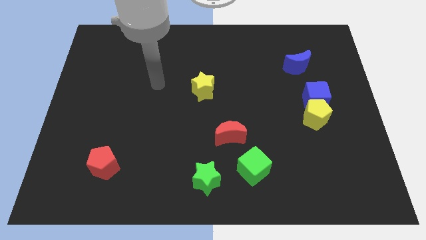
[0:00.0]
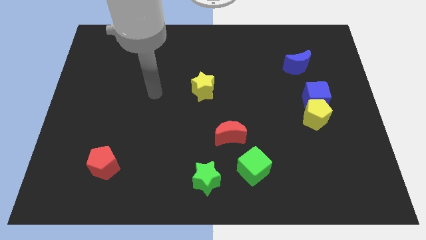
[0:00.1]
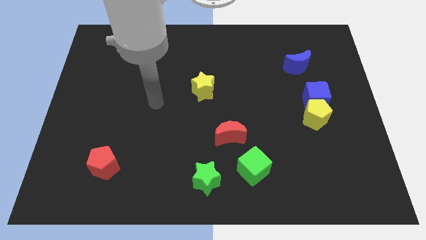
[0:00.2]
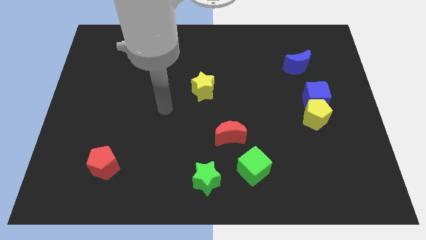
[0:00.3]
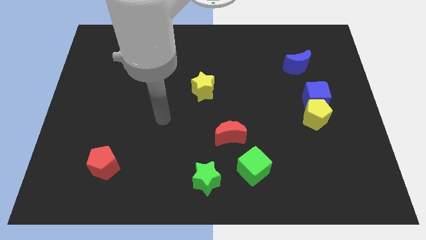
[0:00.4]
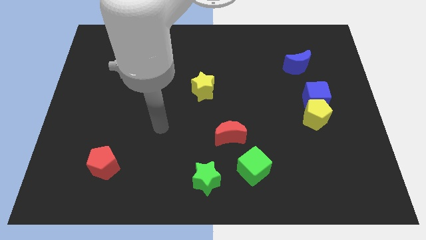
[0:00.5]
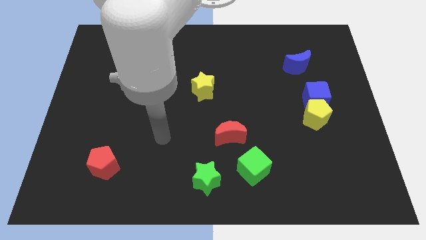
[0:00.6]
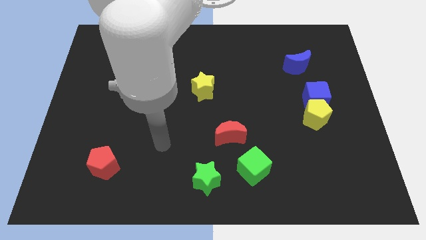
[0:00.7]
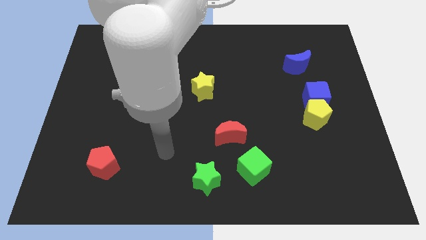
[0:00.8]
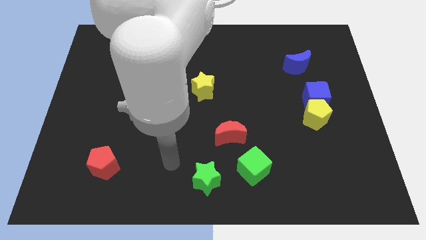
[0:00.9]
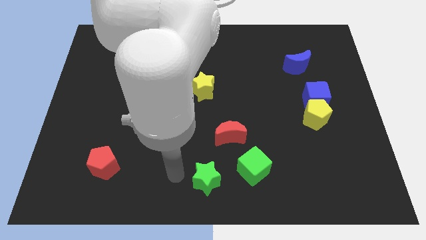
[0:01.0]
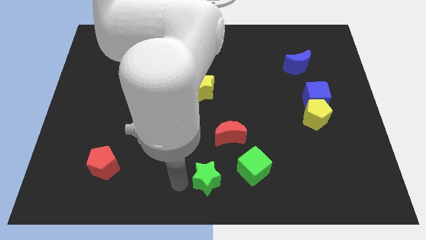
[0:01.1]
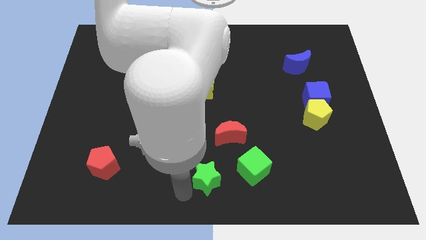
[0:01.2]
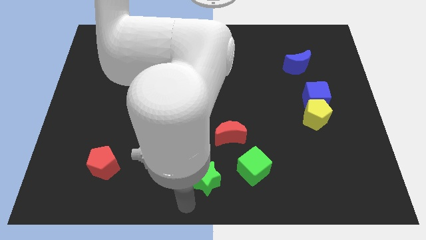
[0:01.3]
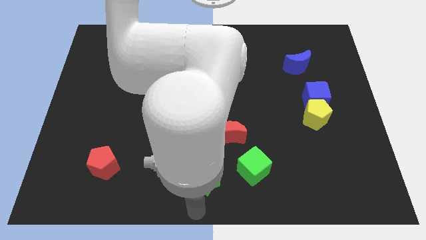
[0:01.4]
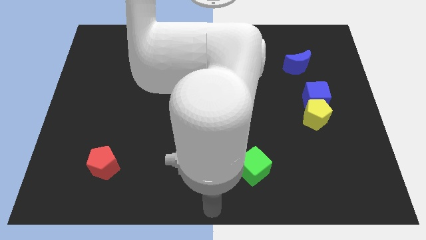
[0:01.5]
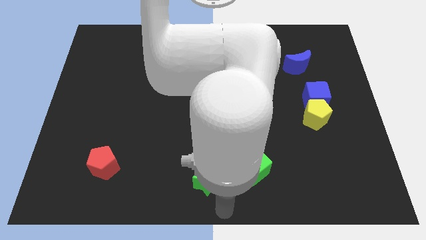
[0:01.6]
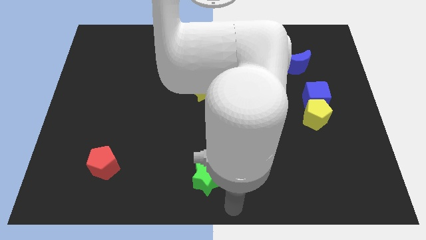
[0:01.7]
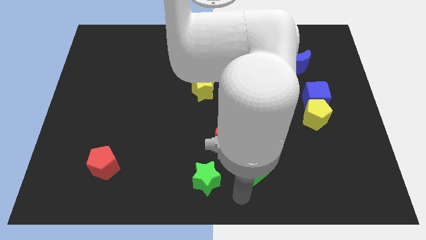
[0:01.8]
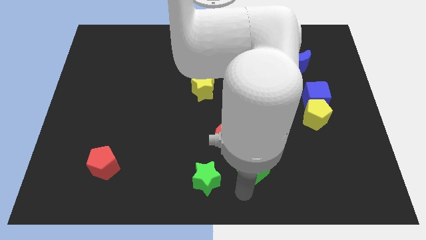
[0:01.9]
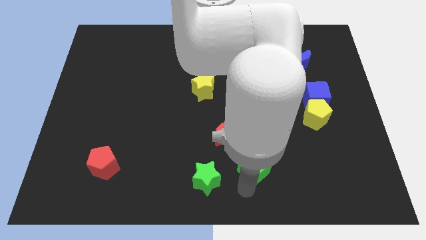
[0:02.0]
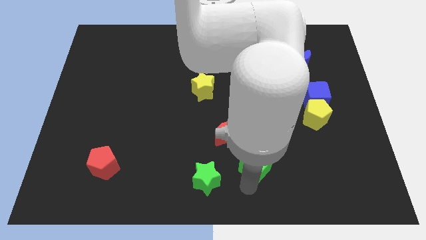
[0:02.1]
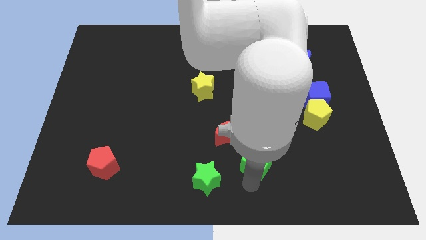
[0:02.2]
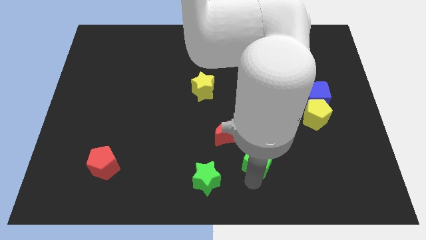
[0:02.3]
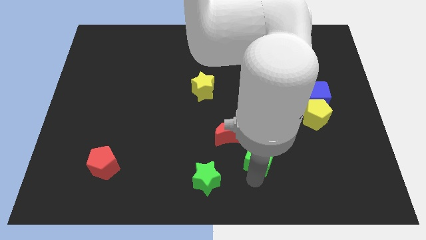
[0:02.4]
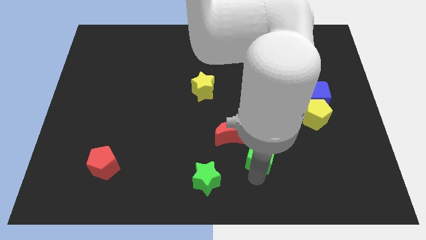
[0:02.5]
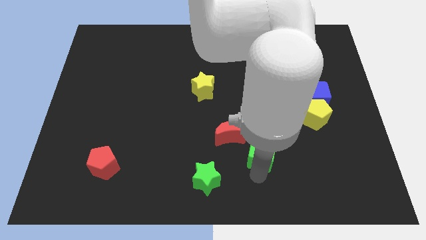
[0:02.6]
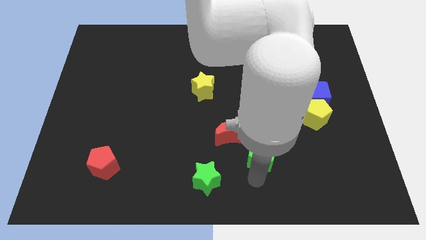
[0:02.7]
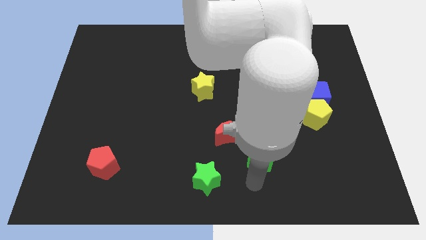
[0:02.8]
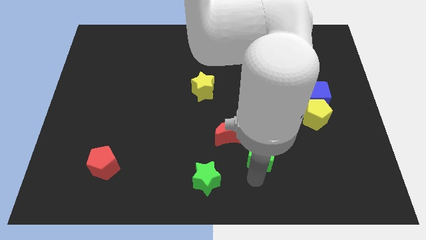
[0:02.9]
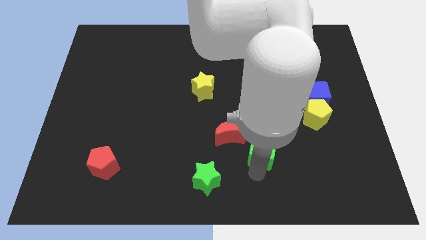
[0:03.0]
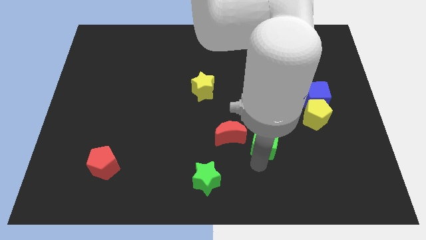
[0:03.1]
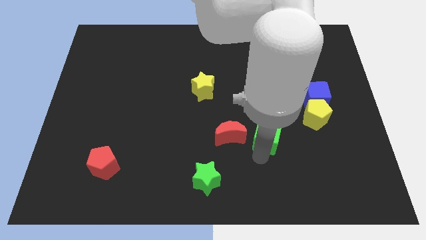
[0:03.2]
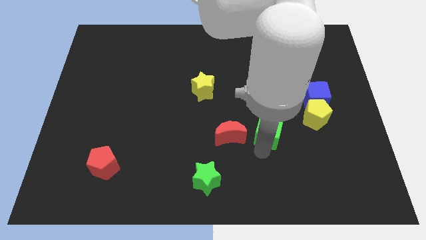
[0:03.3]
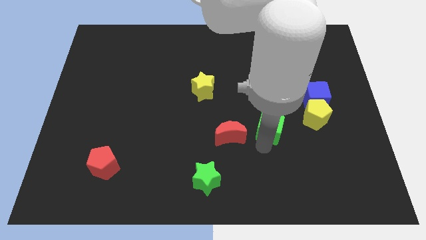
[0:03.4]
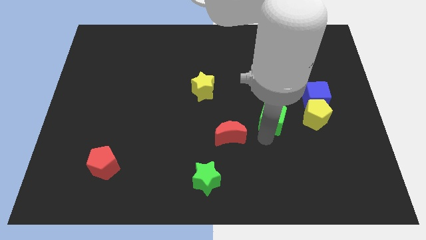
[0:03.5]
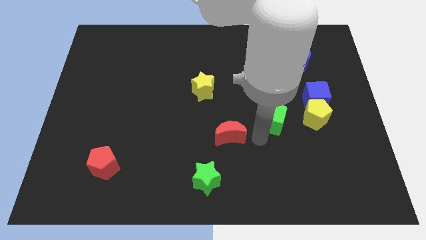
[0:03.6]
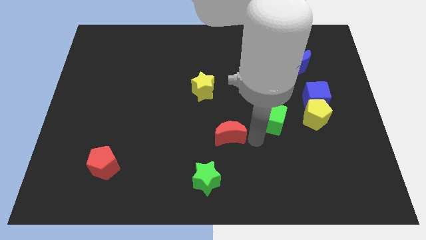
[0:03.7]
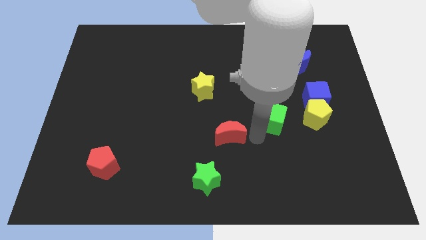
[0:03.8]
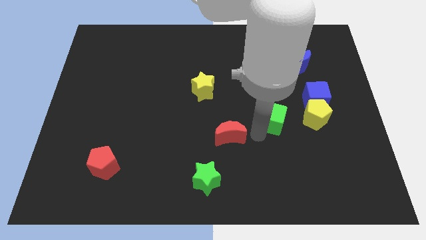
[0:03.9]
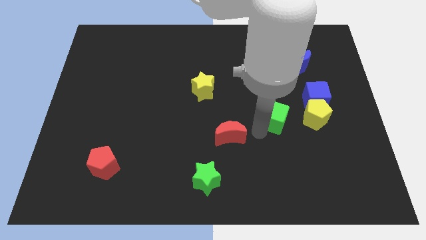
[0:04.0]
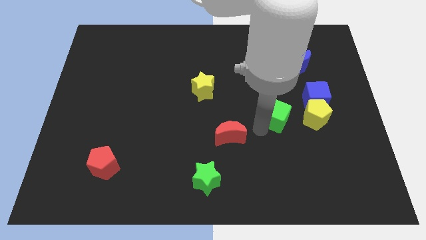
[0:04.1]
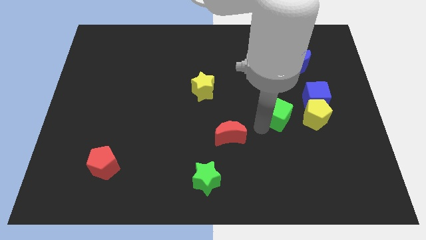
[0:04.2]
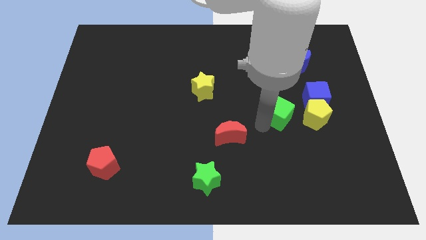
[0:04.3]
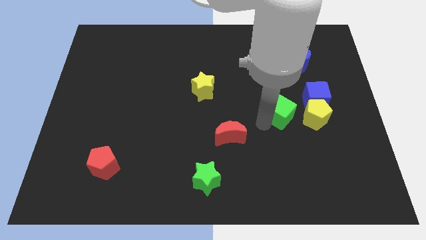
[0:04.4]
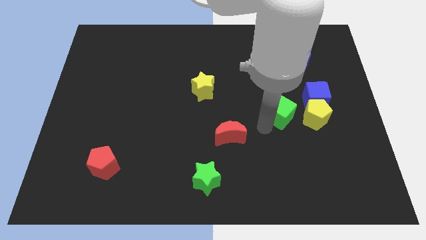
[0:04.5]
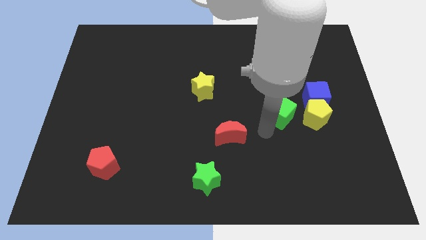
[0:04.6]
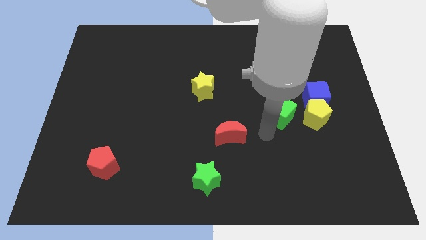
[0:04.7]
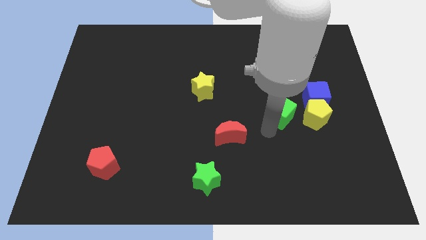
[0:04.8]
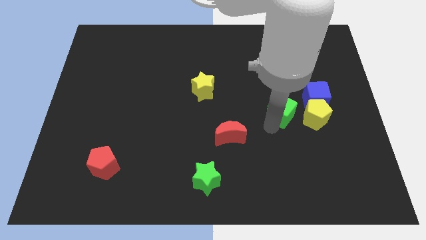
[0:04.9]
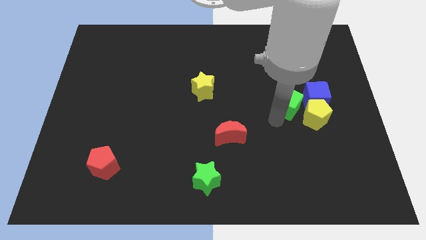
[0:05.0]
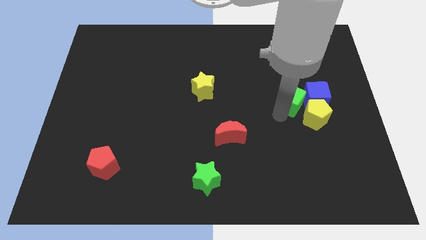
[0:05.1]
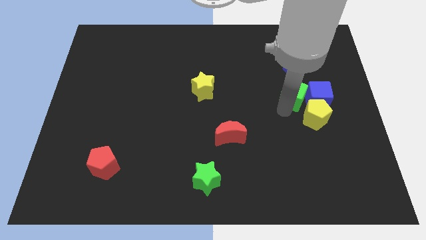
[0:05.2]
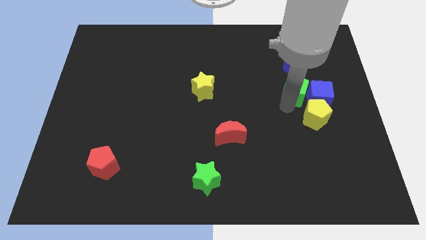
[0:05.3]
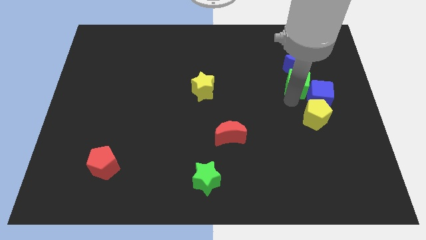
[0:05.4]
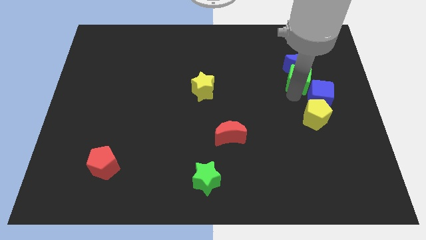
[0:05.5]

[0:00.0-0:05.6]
put the green cube to the blue moon

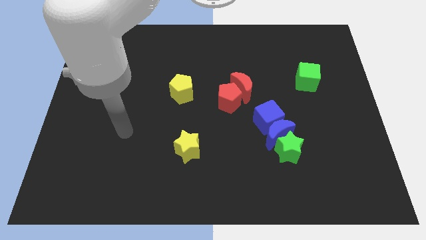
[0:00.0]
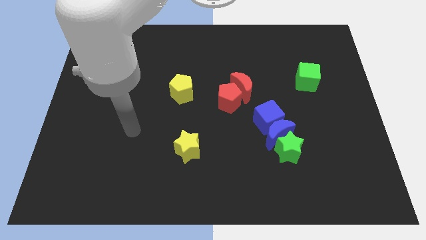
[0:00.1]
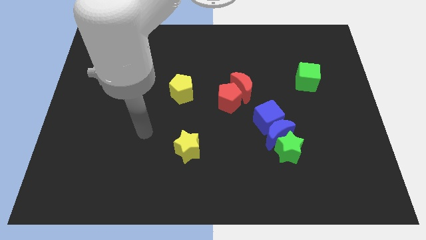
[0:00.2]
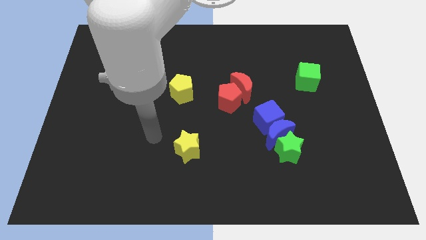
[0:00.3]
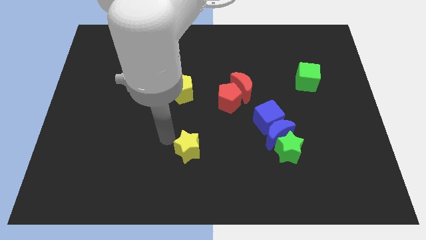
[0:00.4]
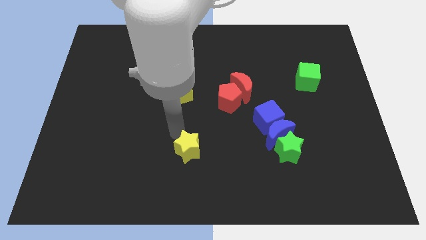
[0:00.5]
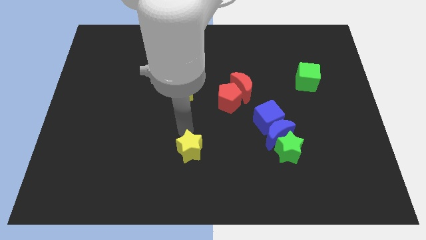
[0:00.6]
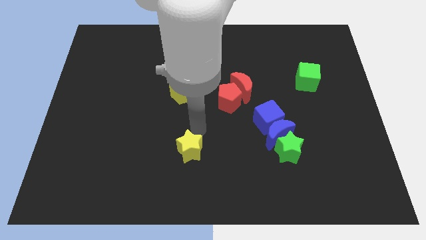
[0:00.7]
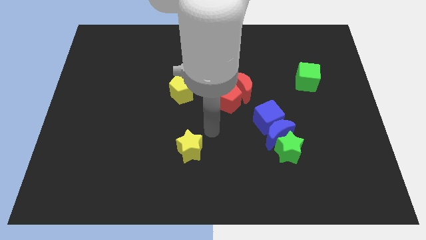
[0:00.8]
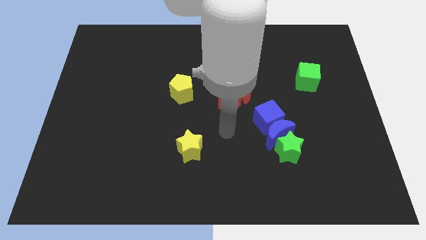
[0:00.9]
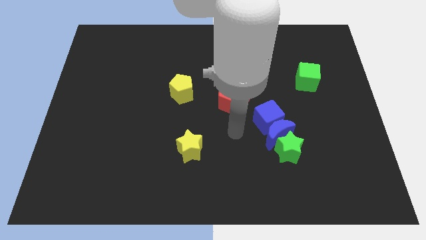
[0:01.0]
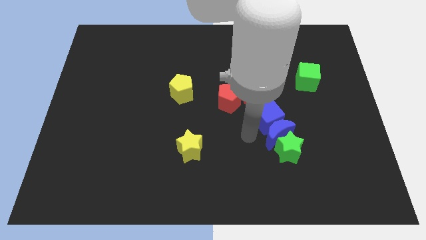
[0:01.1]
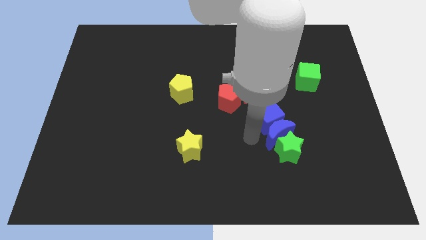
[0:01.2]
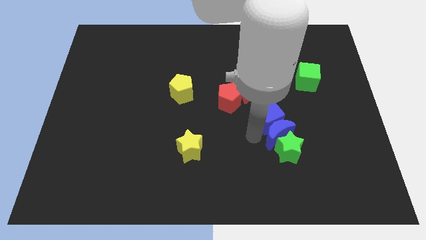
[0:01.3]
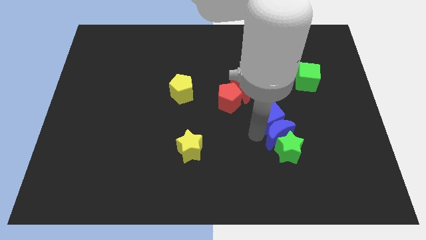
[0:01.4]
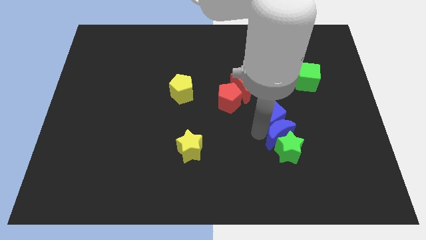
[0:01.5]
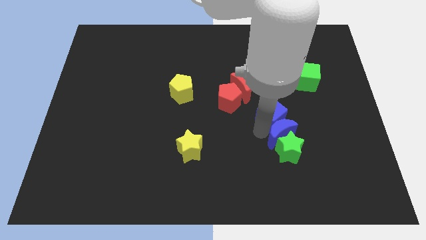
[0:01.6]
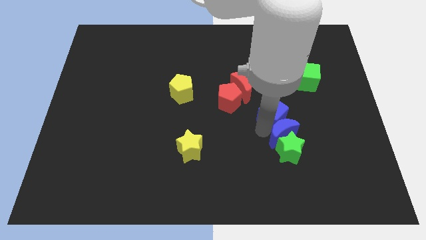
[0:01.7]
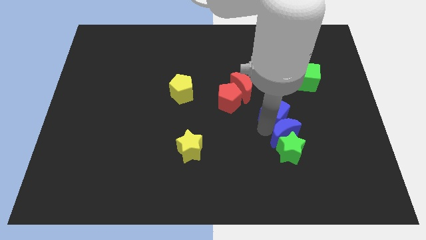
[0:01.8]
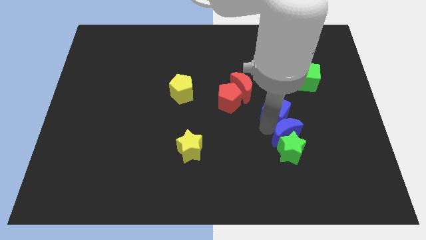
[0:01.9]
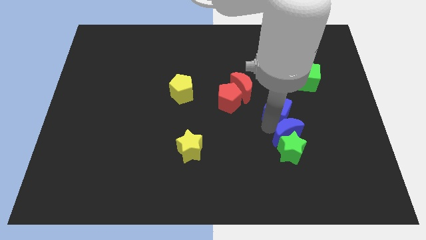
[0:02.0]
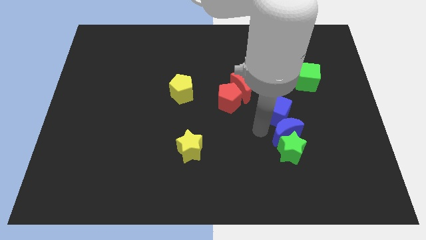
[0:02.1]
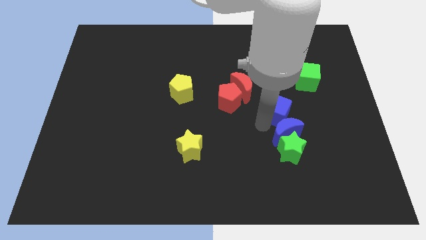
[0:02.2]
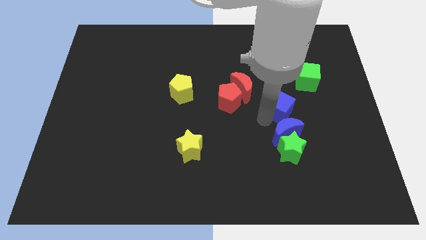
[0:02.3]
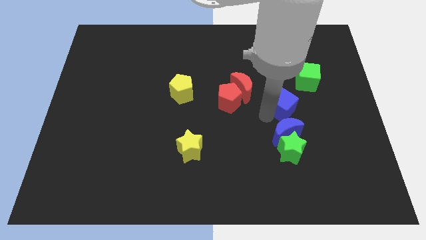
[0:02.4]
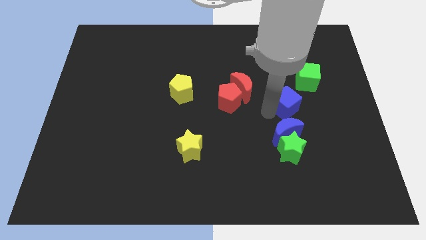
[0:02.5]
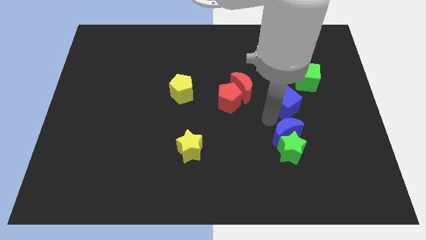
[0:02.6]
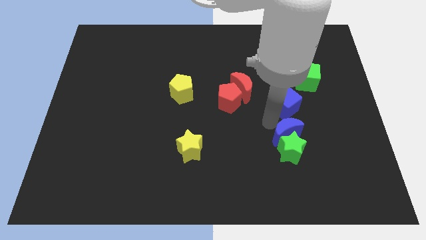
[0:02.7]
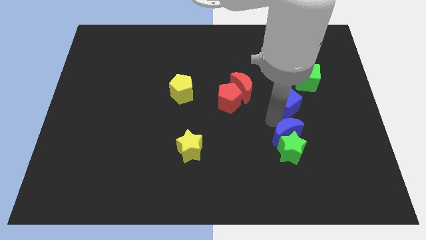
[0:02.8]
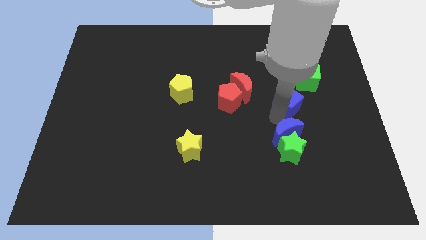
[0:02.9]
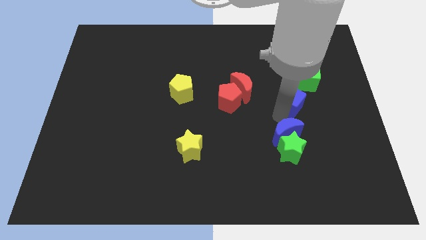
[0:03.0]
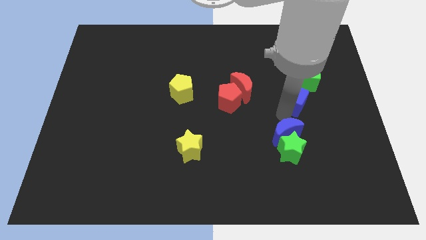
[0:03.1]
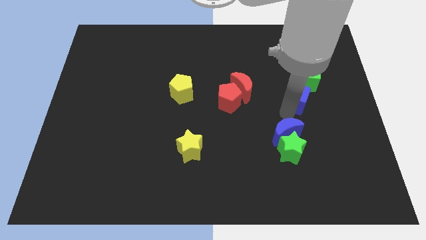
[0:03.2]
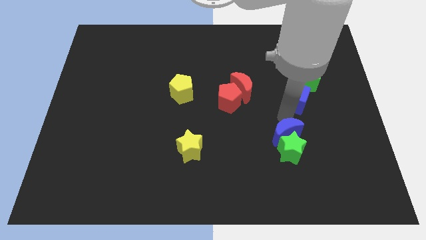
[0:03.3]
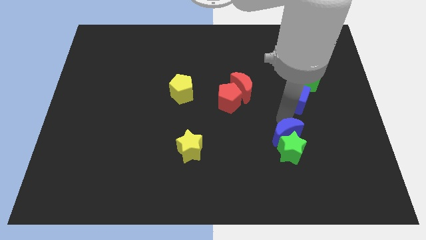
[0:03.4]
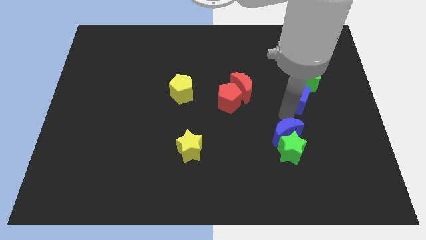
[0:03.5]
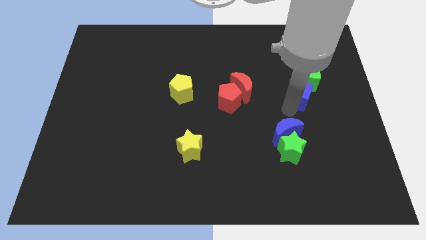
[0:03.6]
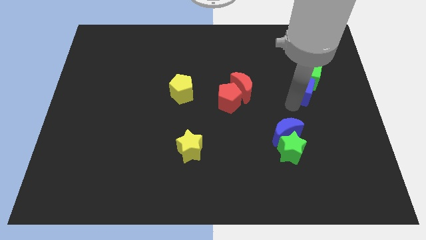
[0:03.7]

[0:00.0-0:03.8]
push the blue cube next to the green cube
